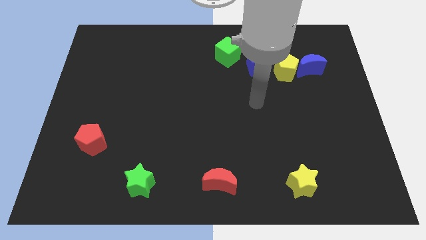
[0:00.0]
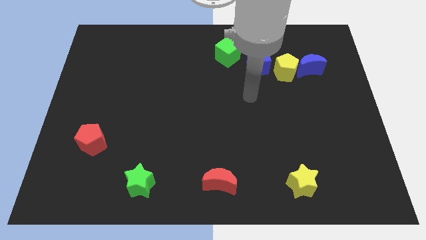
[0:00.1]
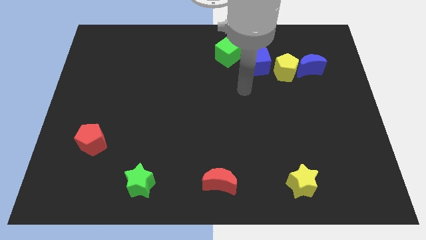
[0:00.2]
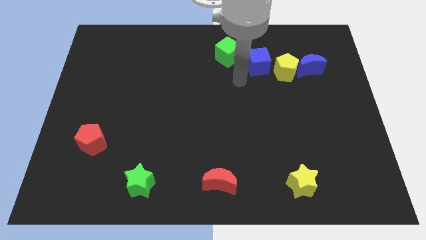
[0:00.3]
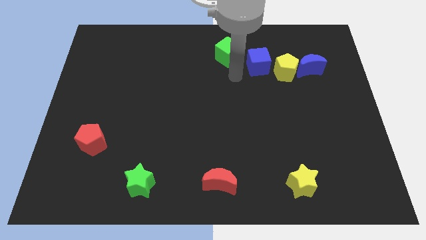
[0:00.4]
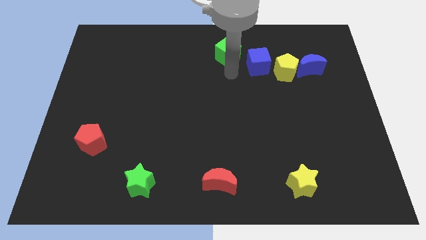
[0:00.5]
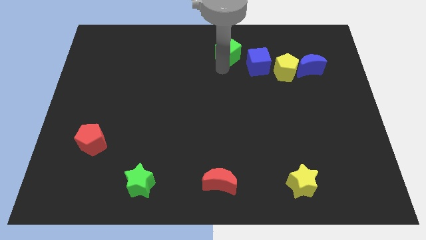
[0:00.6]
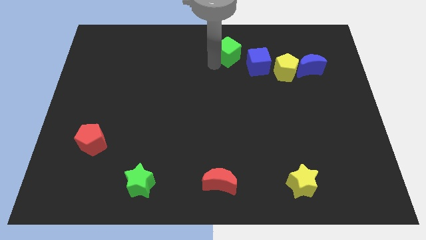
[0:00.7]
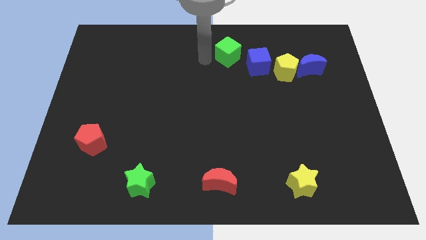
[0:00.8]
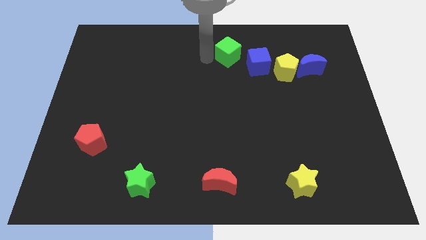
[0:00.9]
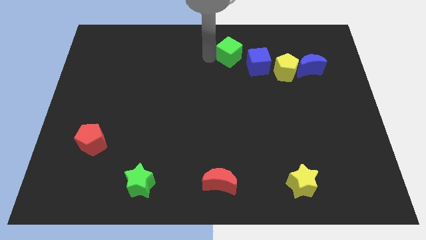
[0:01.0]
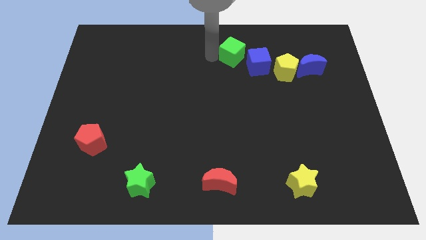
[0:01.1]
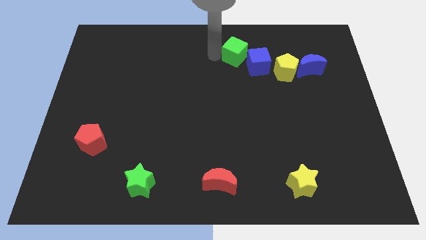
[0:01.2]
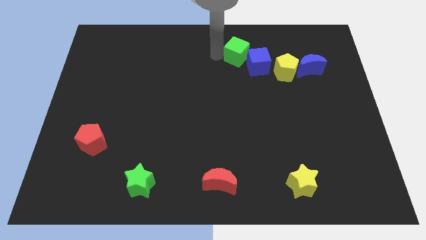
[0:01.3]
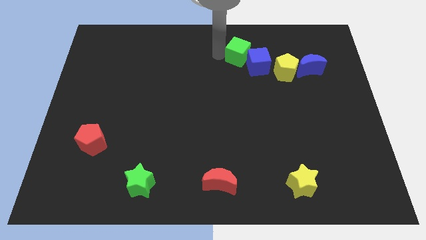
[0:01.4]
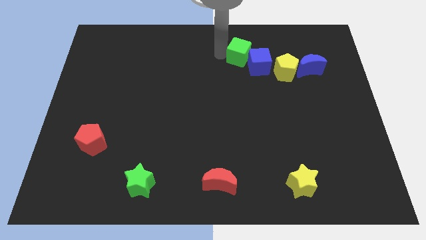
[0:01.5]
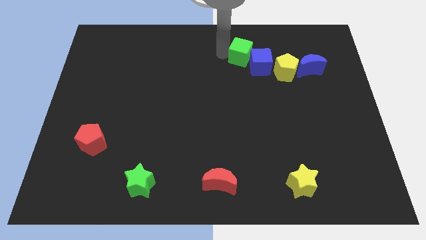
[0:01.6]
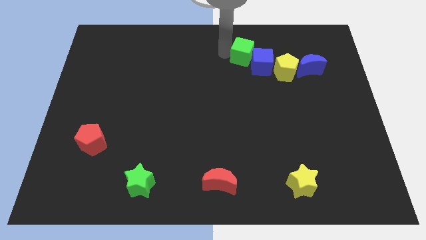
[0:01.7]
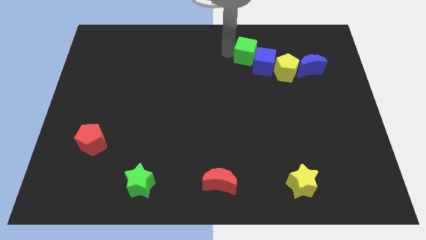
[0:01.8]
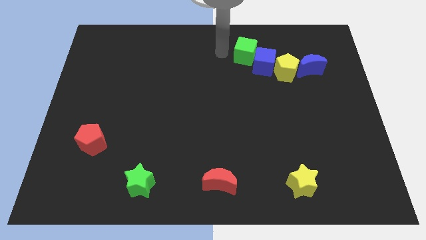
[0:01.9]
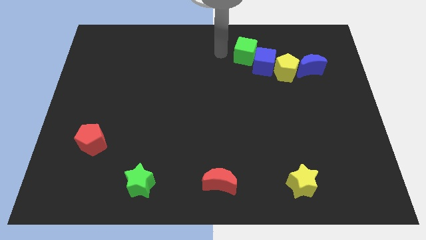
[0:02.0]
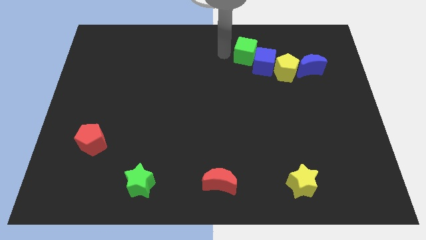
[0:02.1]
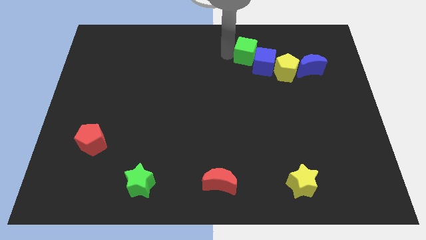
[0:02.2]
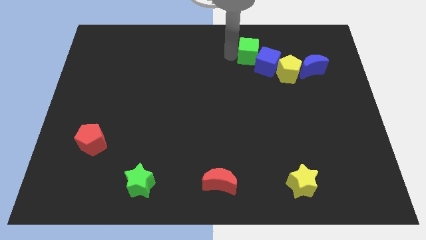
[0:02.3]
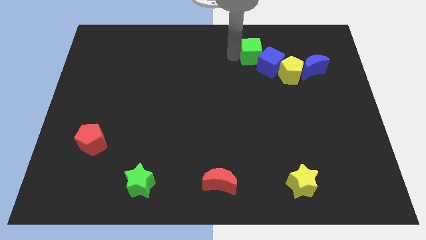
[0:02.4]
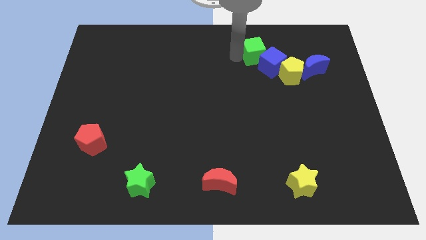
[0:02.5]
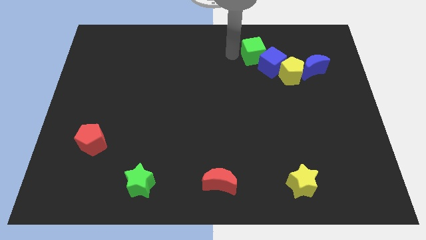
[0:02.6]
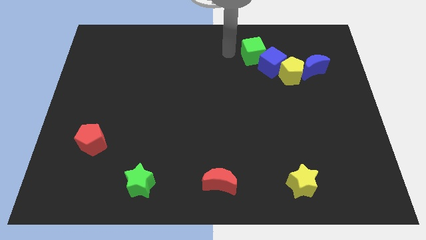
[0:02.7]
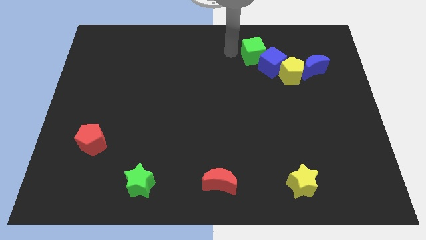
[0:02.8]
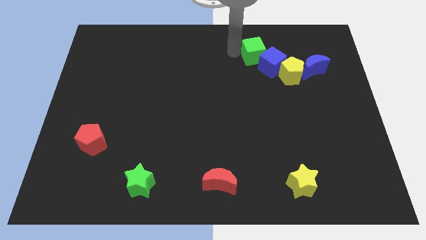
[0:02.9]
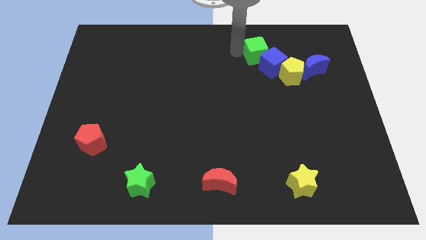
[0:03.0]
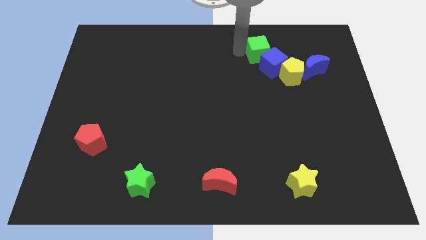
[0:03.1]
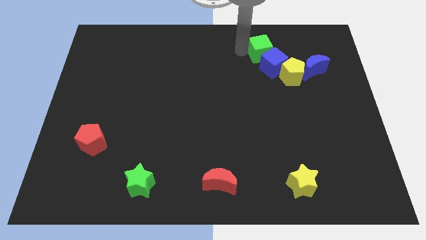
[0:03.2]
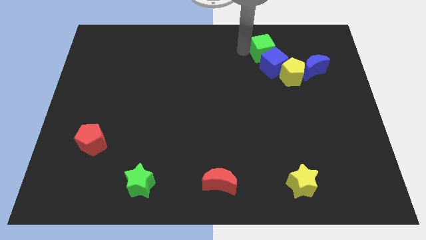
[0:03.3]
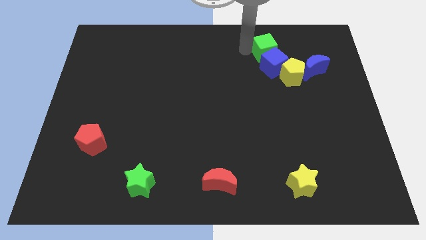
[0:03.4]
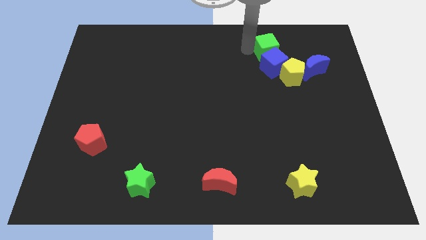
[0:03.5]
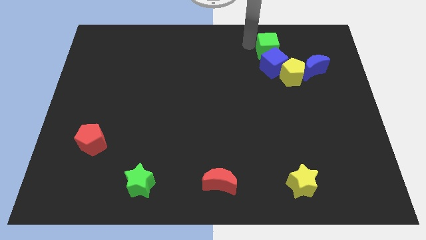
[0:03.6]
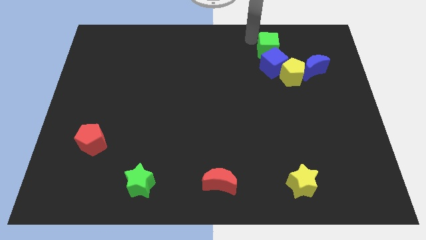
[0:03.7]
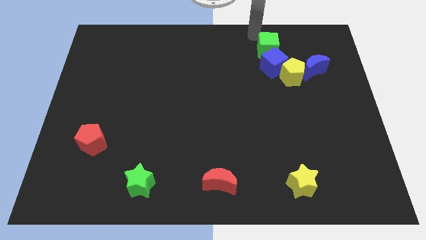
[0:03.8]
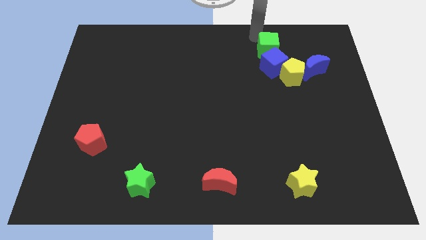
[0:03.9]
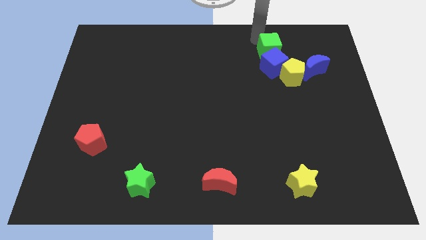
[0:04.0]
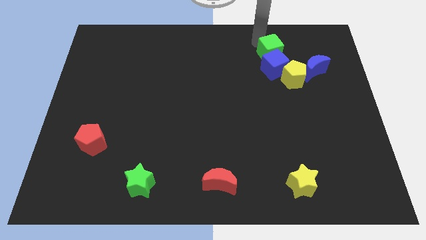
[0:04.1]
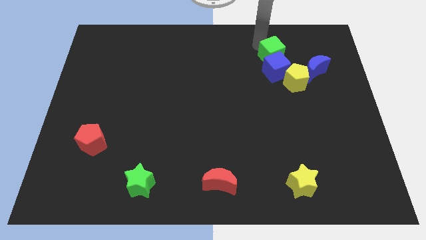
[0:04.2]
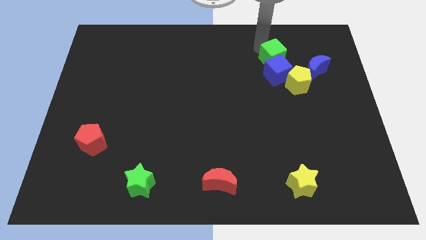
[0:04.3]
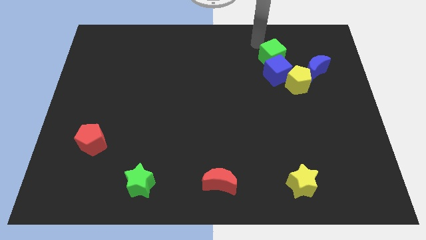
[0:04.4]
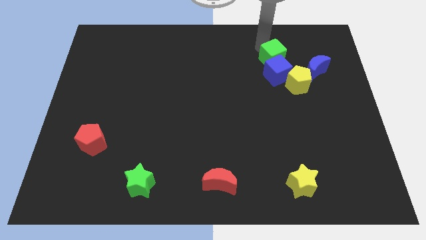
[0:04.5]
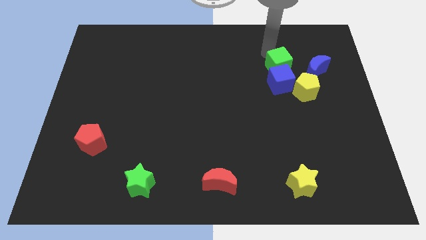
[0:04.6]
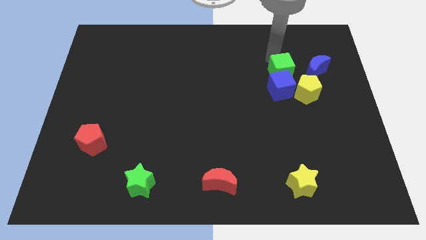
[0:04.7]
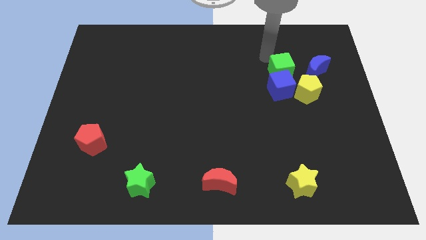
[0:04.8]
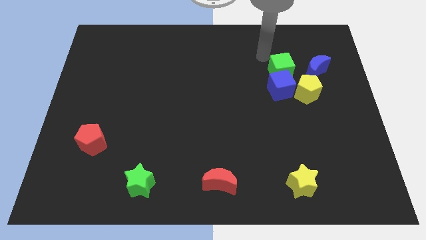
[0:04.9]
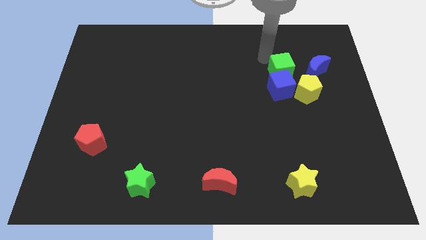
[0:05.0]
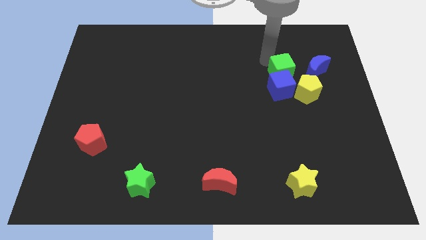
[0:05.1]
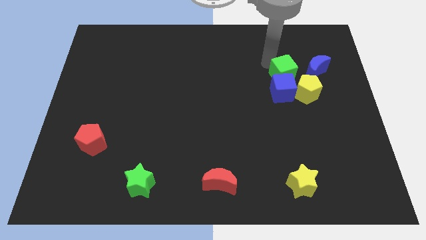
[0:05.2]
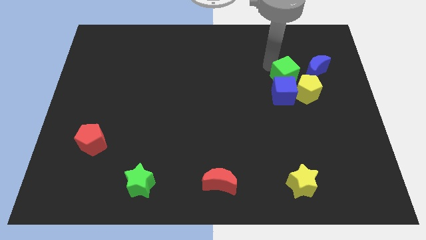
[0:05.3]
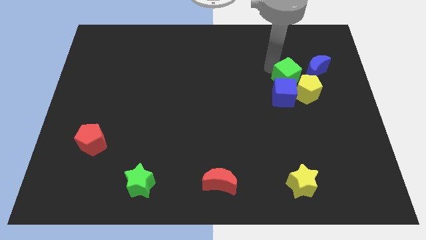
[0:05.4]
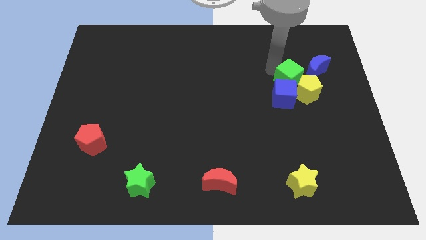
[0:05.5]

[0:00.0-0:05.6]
push the green cube next to the yellow pentagon
